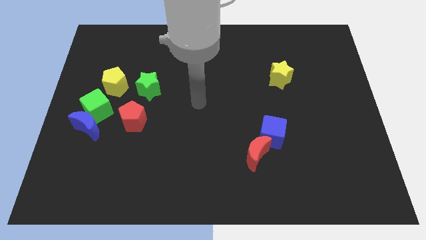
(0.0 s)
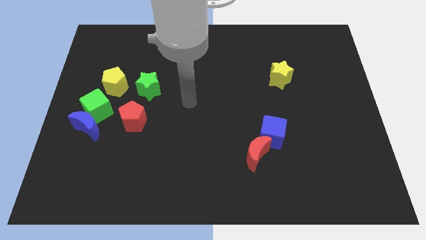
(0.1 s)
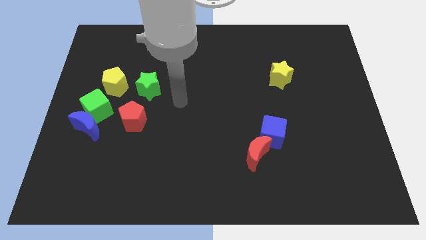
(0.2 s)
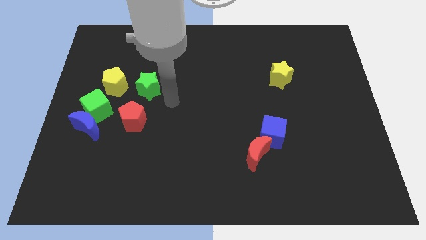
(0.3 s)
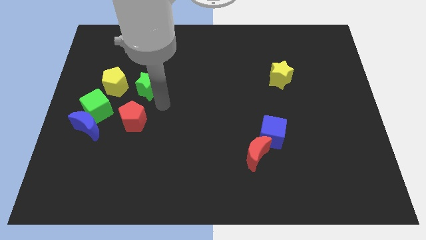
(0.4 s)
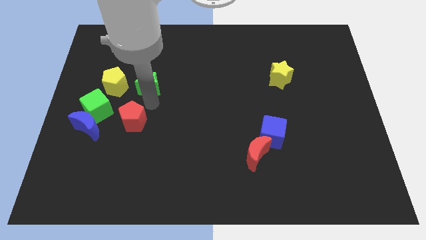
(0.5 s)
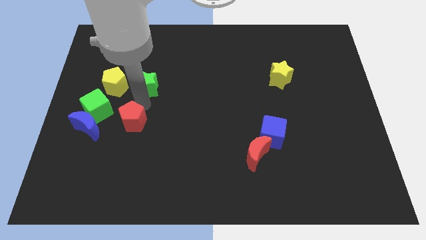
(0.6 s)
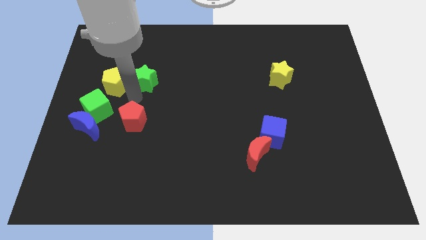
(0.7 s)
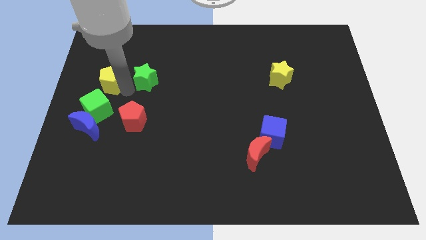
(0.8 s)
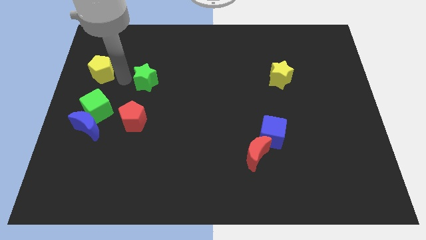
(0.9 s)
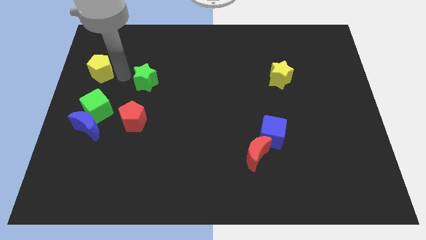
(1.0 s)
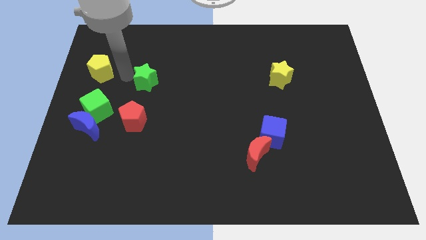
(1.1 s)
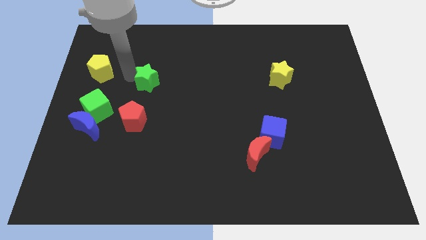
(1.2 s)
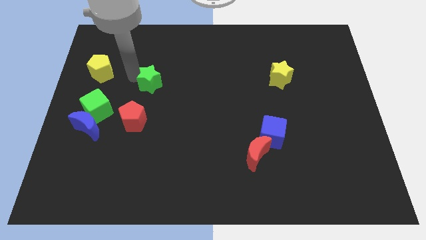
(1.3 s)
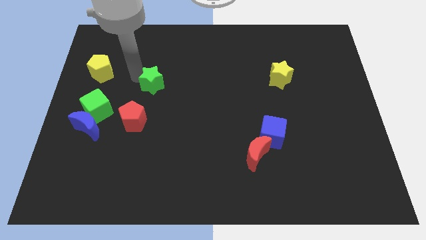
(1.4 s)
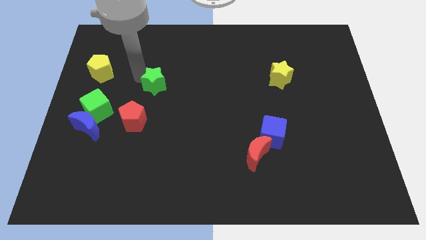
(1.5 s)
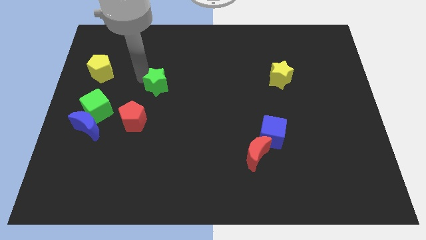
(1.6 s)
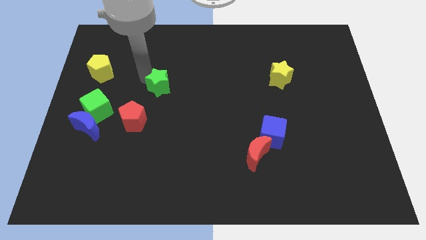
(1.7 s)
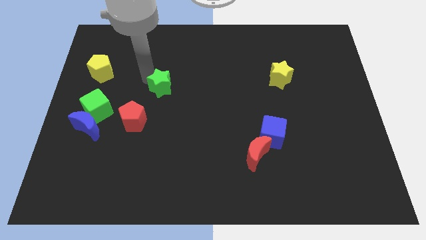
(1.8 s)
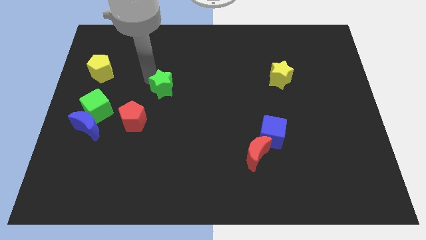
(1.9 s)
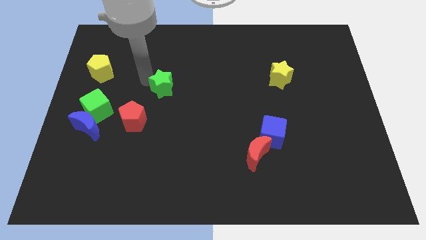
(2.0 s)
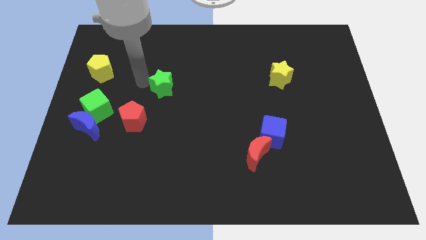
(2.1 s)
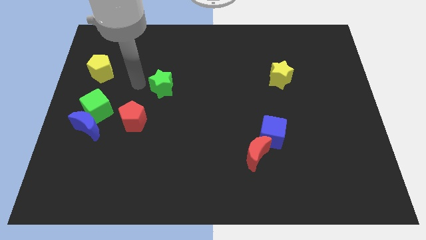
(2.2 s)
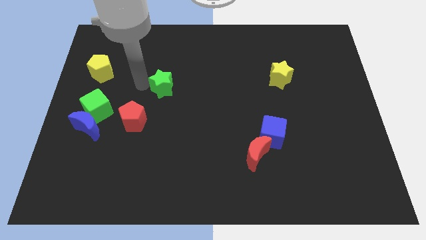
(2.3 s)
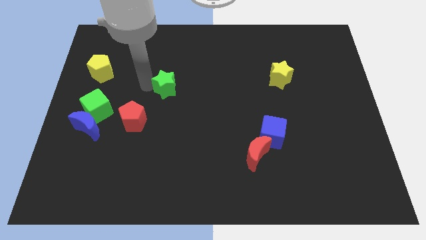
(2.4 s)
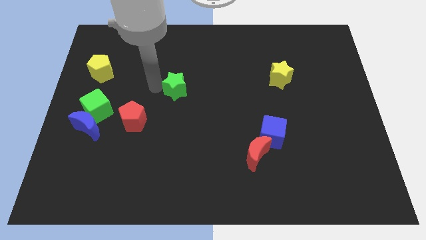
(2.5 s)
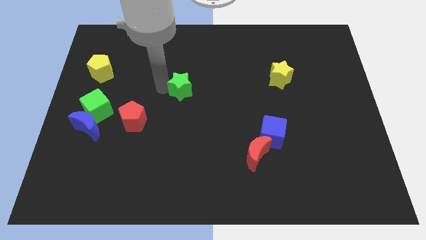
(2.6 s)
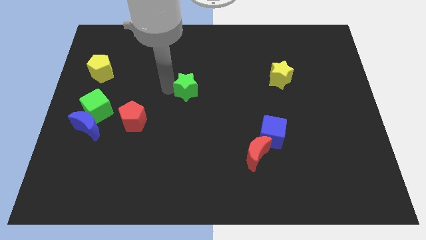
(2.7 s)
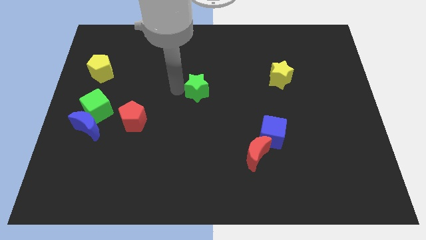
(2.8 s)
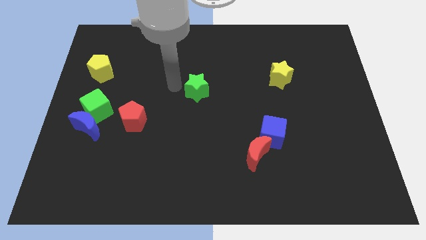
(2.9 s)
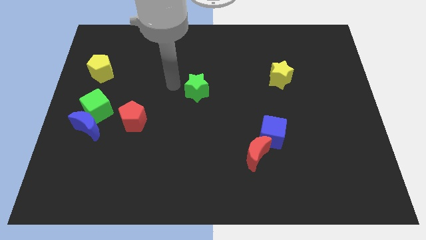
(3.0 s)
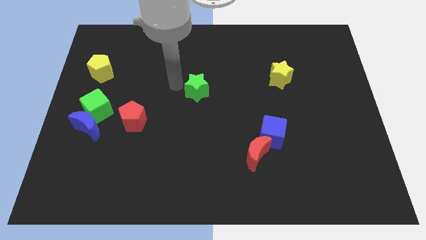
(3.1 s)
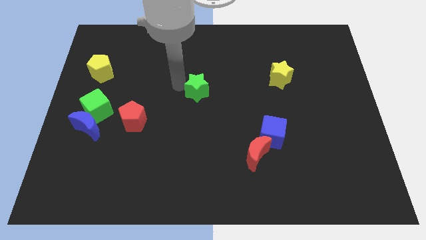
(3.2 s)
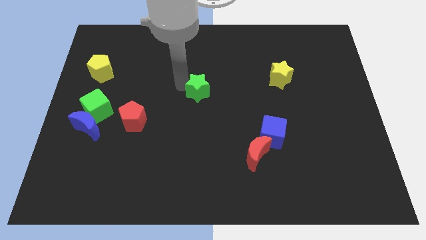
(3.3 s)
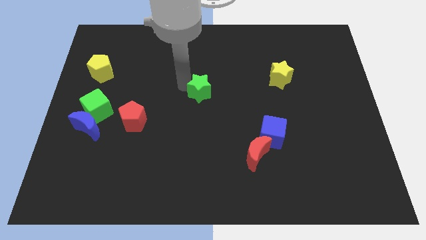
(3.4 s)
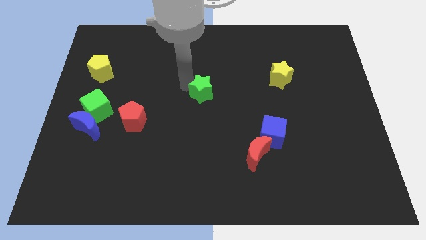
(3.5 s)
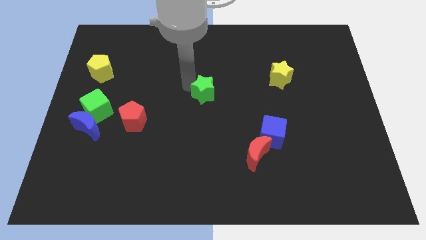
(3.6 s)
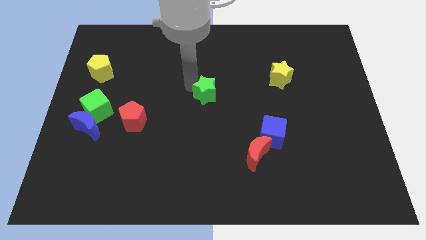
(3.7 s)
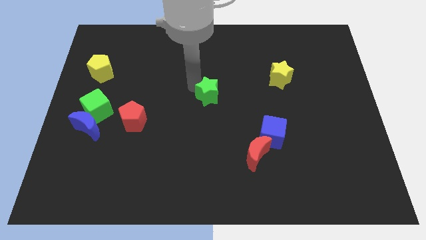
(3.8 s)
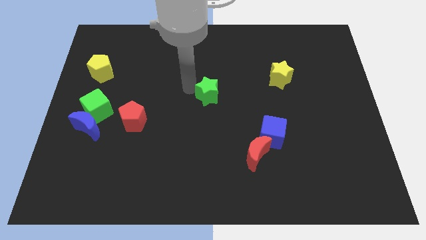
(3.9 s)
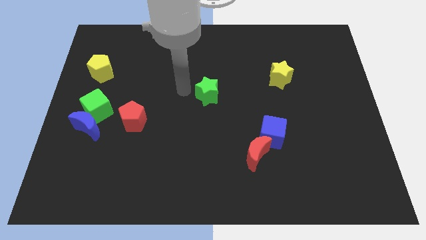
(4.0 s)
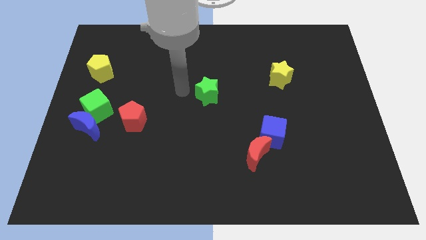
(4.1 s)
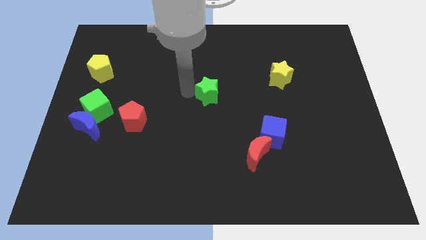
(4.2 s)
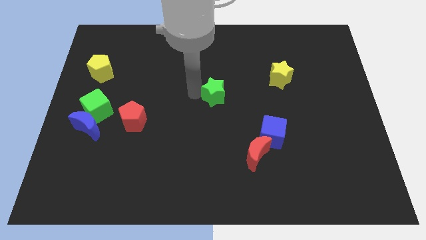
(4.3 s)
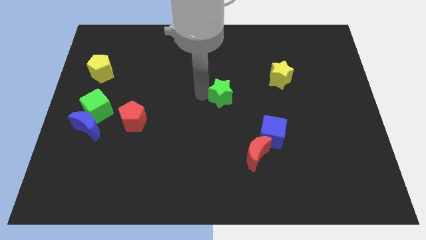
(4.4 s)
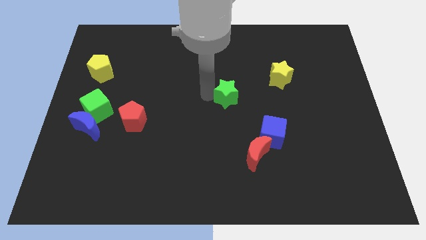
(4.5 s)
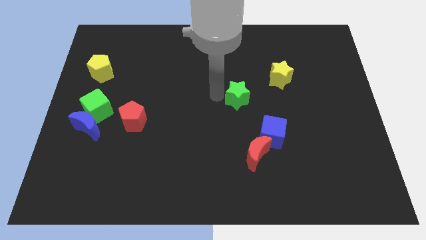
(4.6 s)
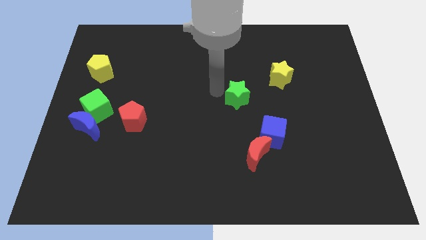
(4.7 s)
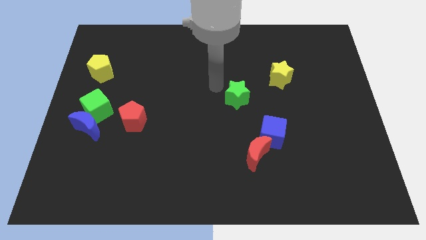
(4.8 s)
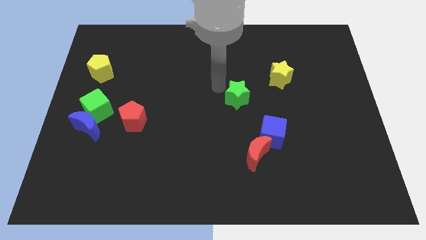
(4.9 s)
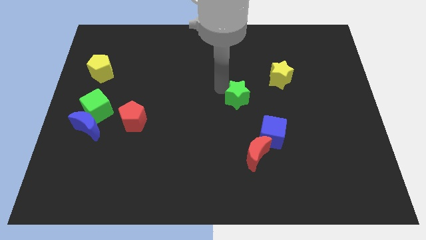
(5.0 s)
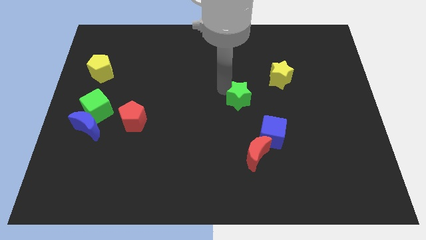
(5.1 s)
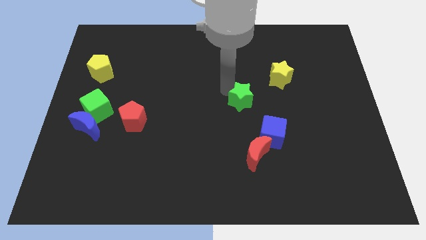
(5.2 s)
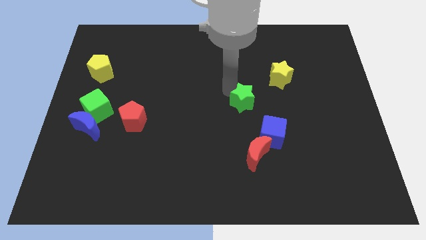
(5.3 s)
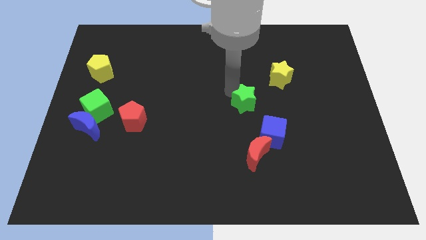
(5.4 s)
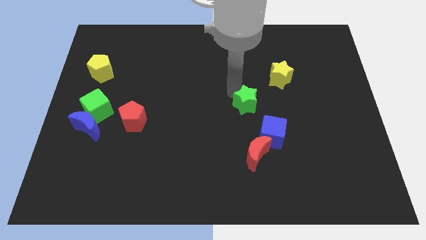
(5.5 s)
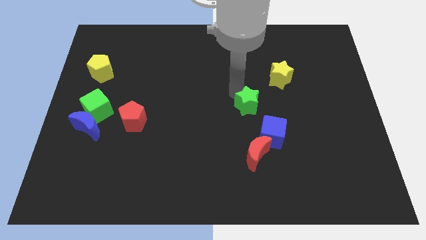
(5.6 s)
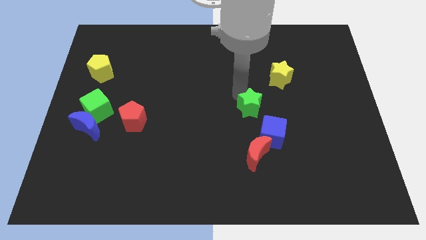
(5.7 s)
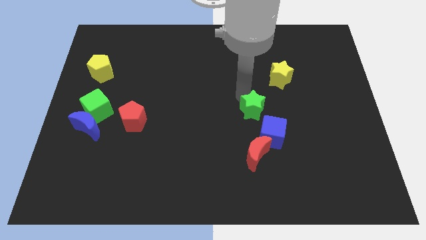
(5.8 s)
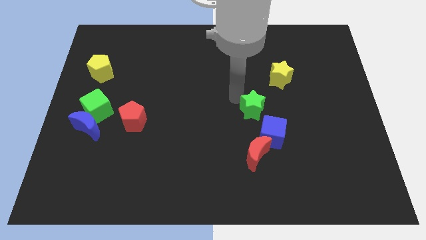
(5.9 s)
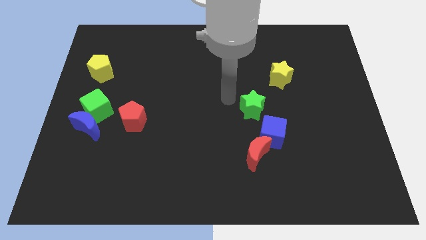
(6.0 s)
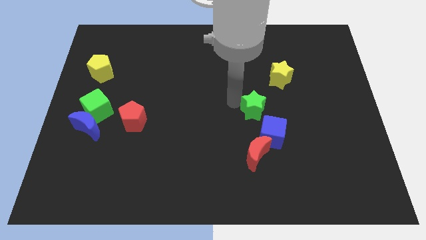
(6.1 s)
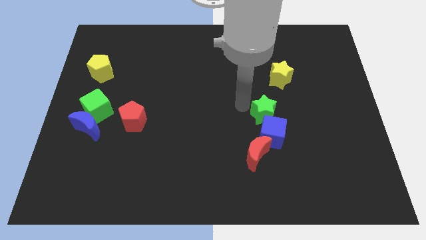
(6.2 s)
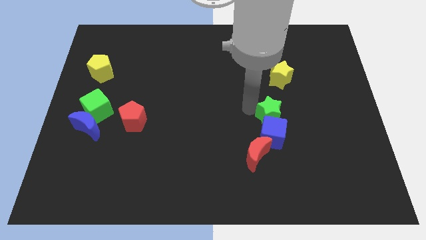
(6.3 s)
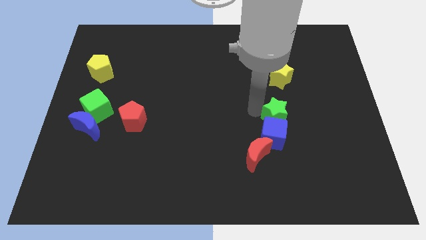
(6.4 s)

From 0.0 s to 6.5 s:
push the green star diagonally up and to the right of the red moon

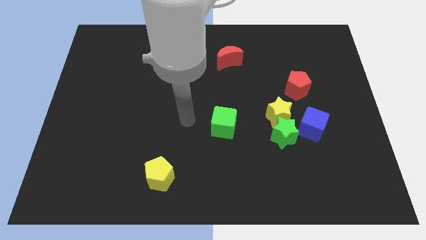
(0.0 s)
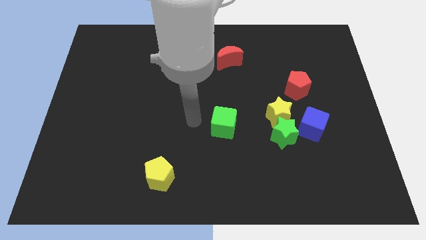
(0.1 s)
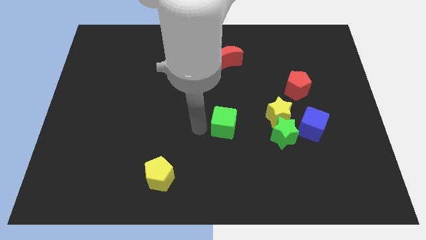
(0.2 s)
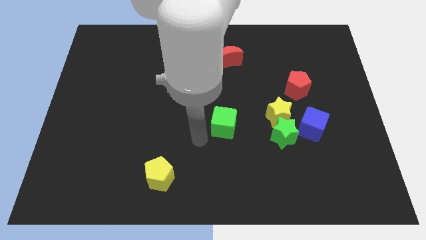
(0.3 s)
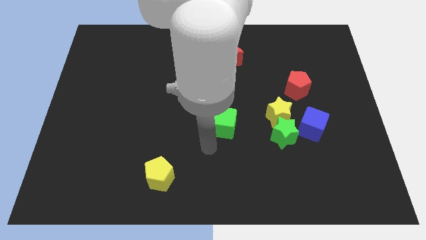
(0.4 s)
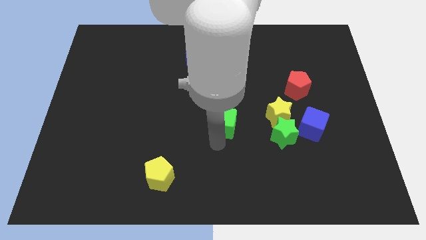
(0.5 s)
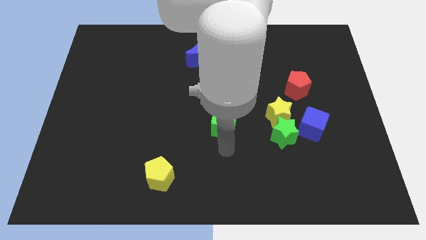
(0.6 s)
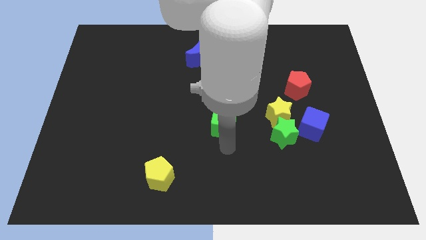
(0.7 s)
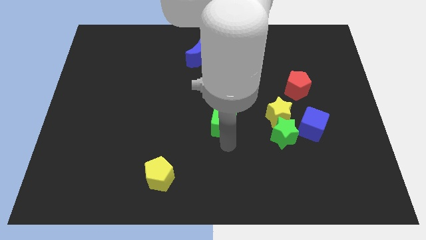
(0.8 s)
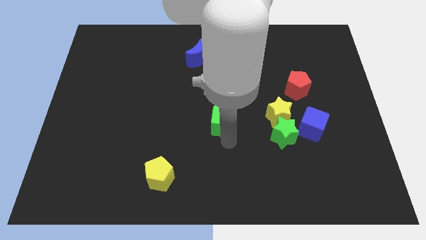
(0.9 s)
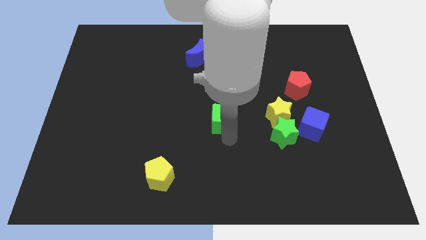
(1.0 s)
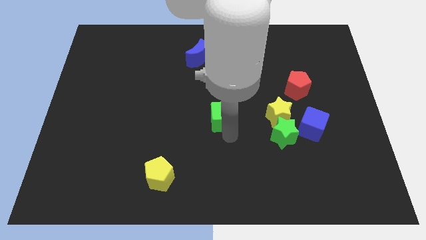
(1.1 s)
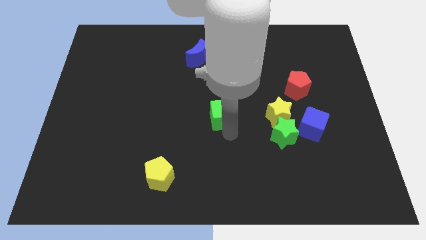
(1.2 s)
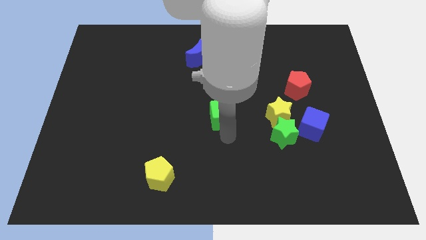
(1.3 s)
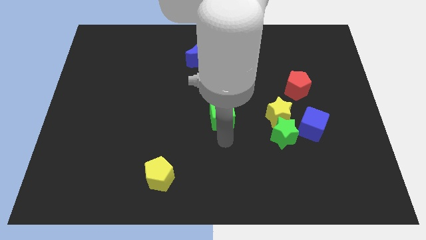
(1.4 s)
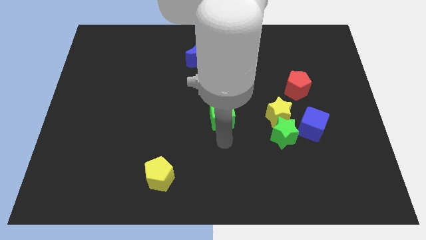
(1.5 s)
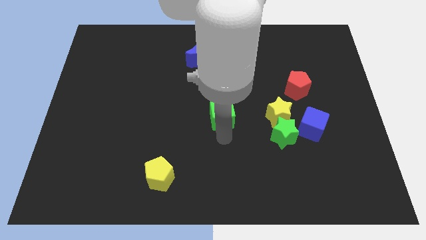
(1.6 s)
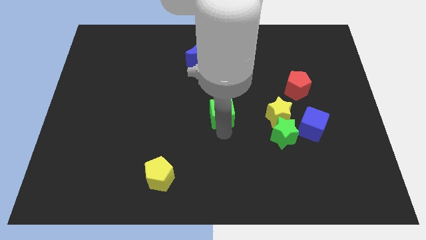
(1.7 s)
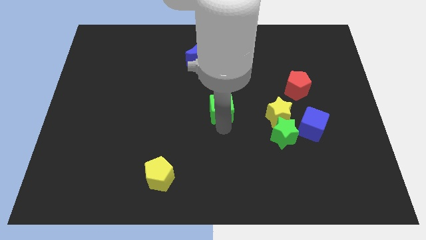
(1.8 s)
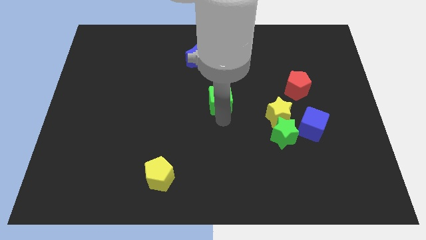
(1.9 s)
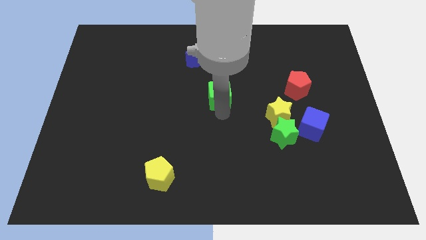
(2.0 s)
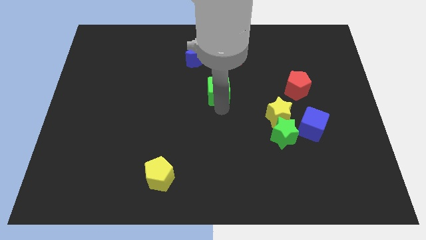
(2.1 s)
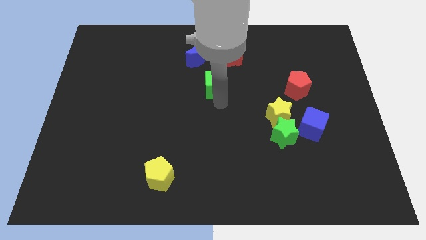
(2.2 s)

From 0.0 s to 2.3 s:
move the green cube to the bottom right of the blue moon
